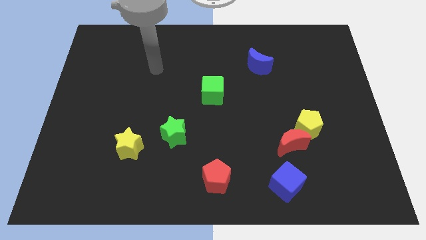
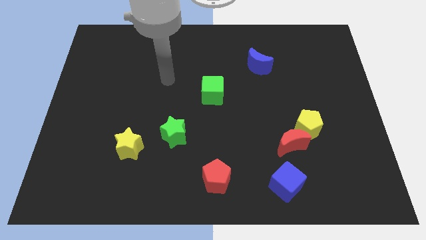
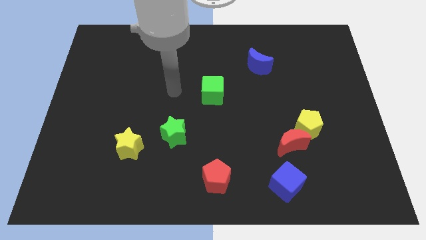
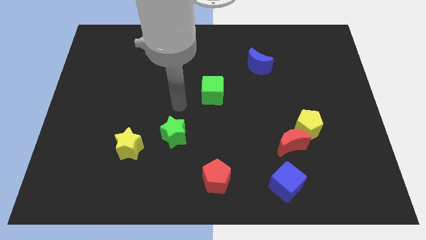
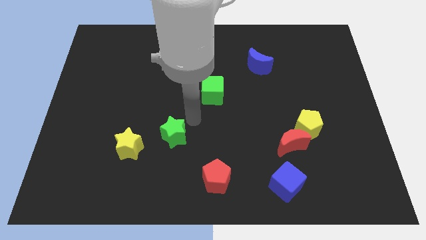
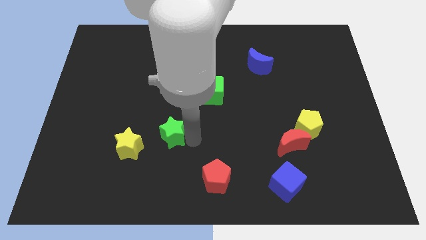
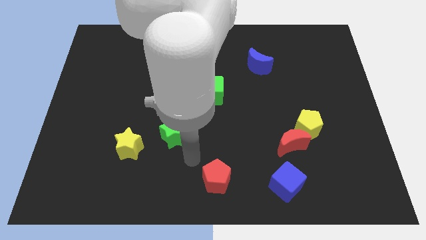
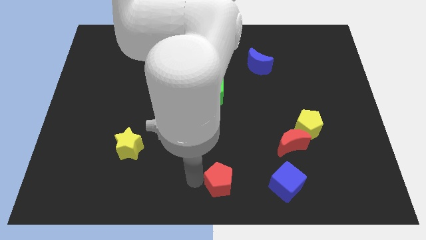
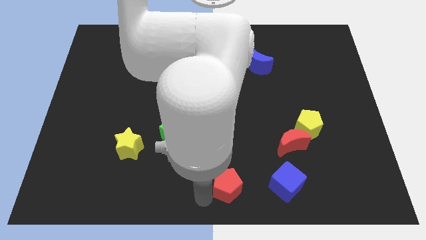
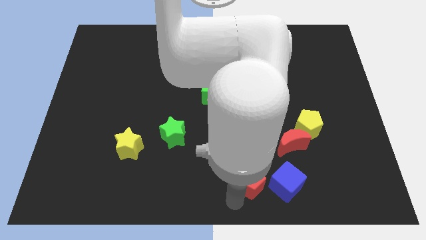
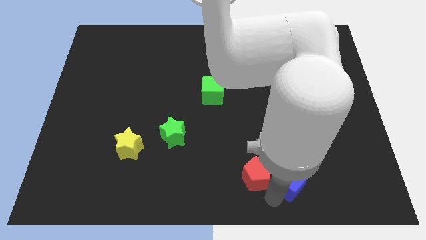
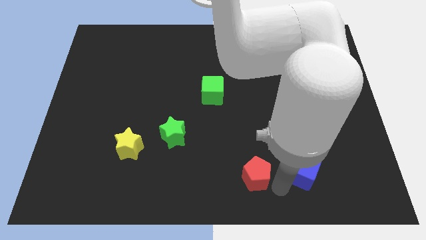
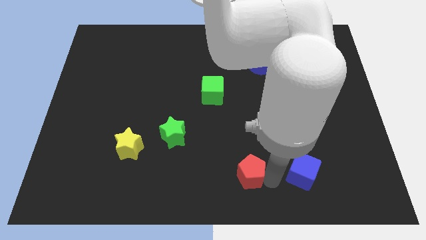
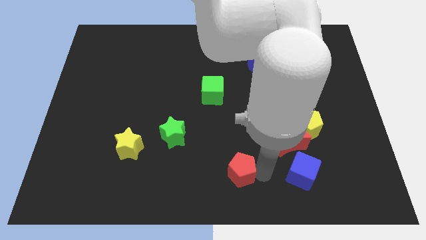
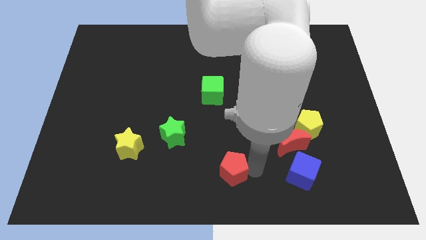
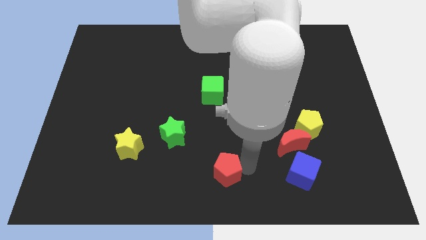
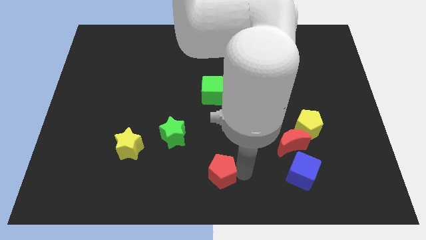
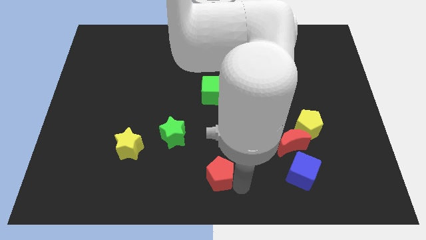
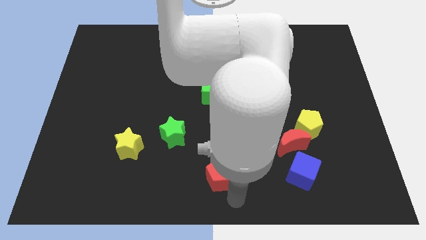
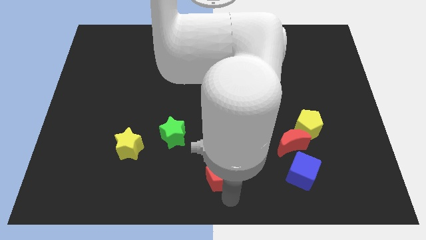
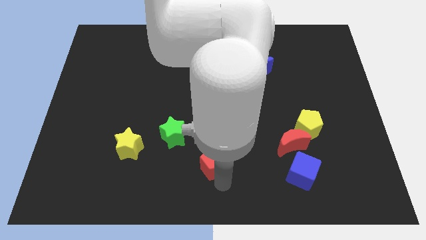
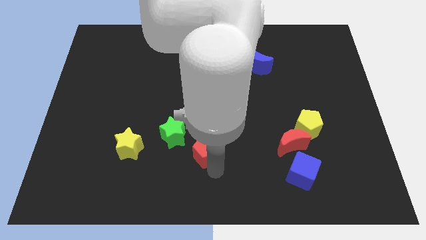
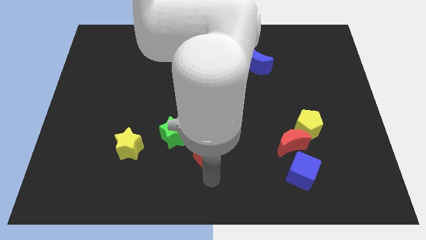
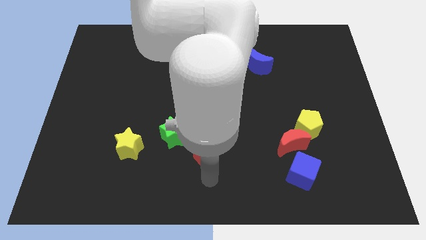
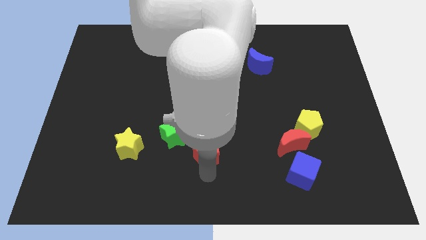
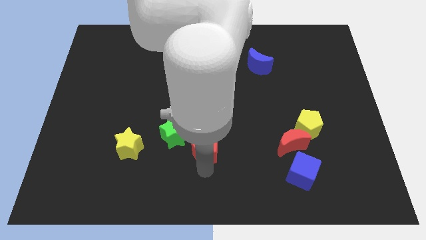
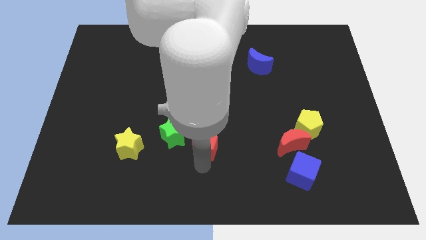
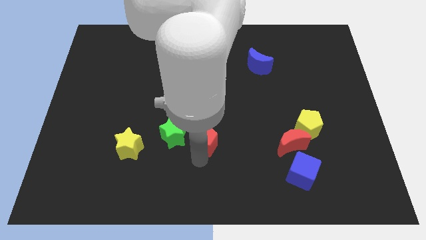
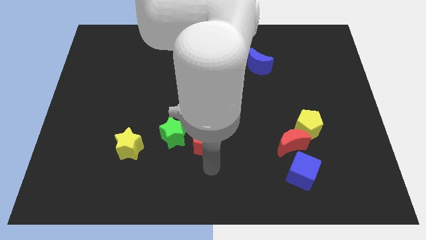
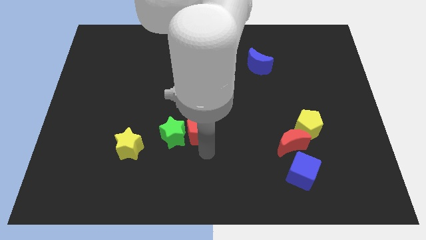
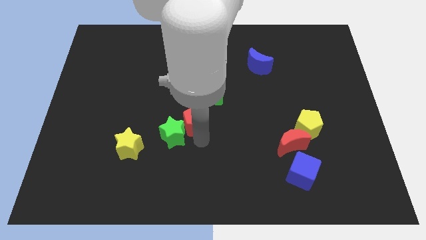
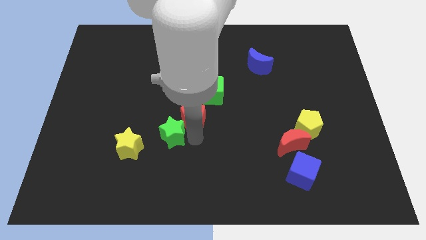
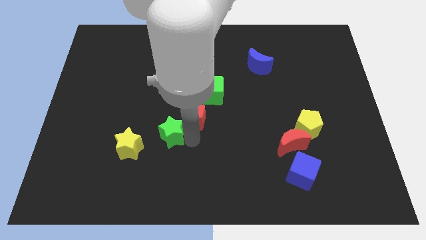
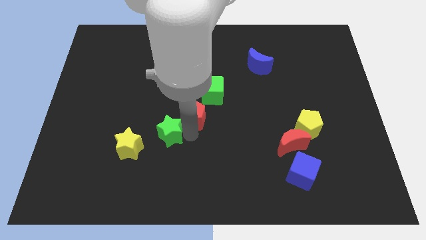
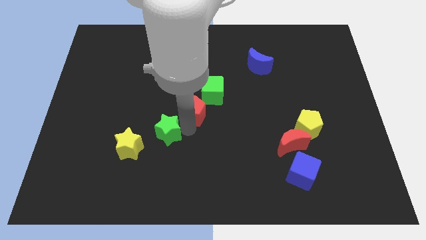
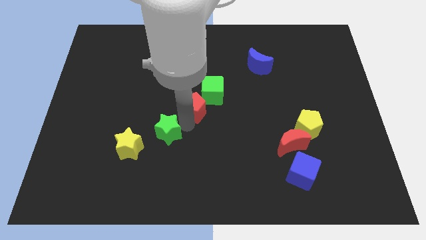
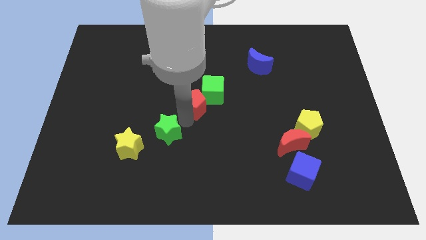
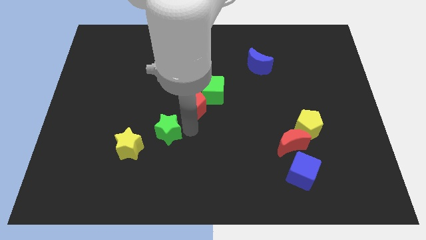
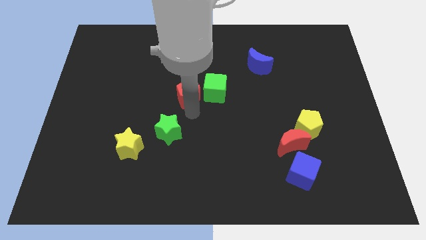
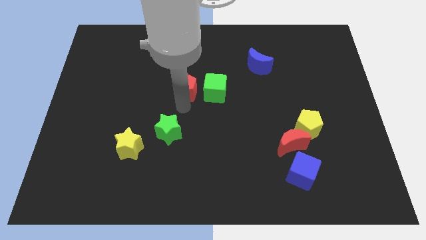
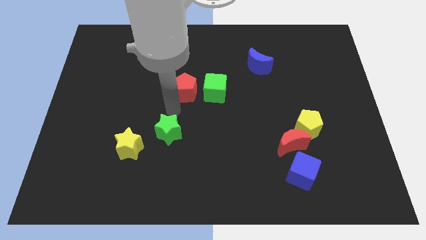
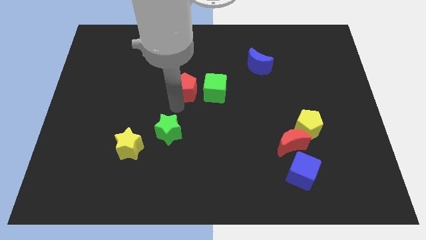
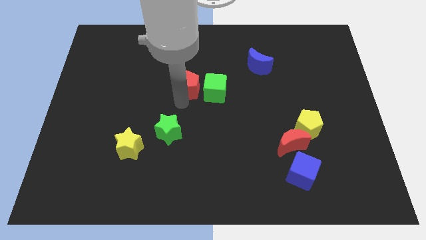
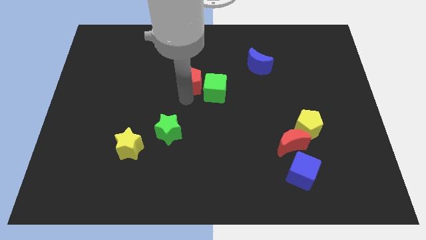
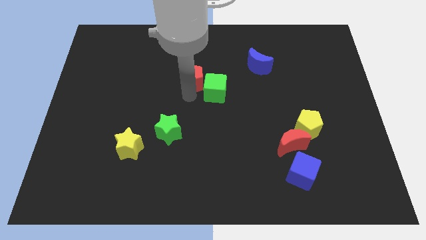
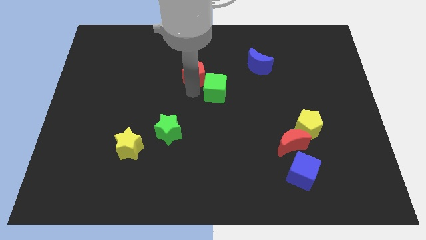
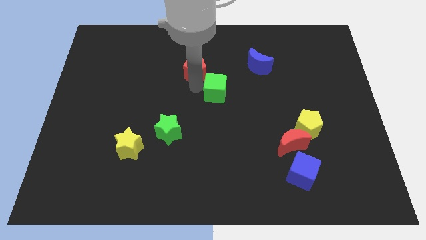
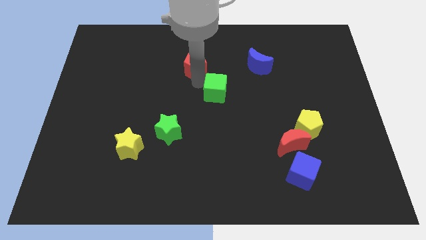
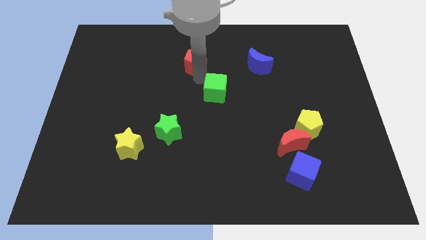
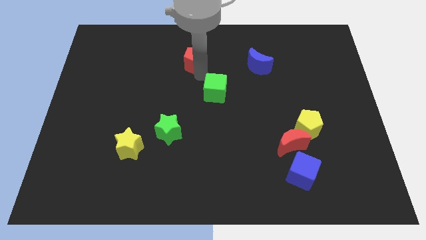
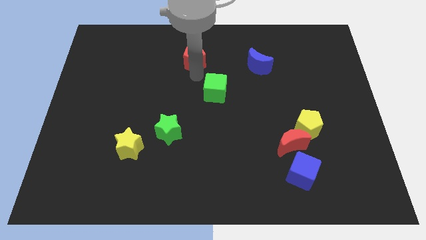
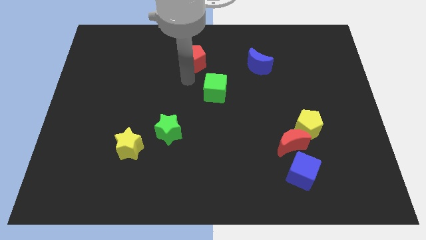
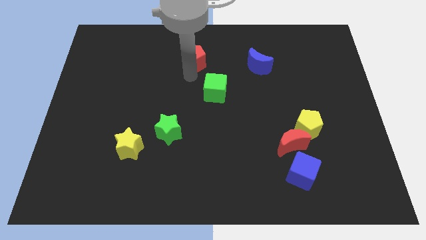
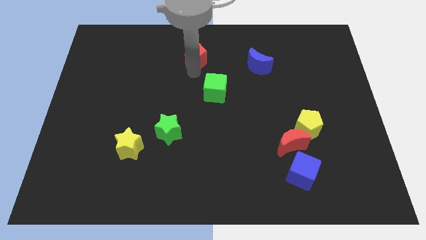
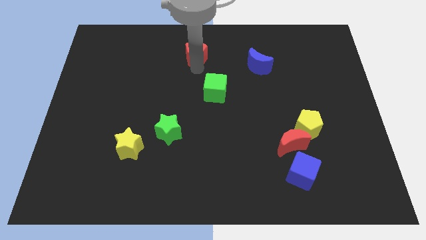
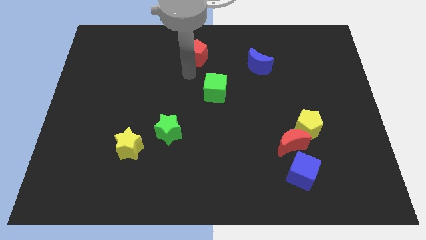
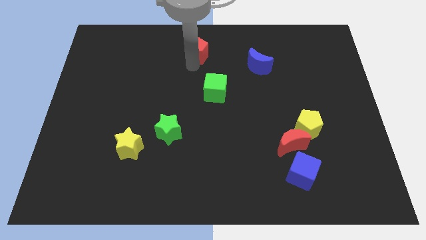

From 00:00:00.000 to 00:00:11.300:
put the red pentagon to the top

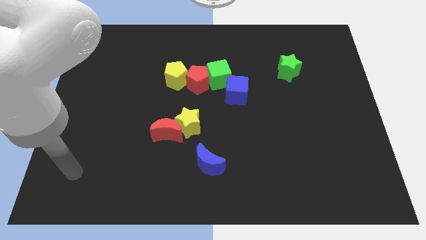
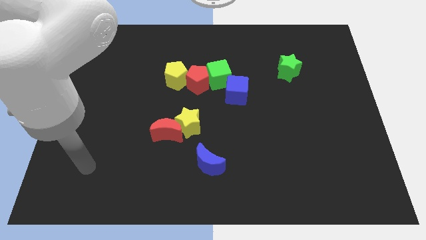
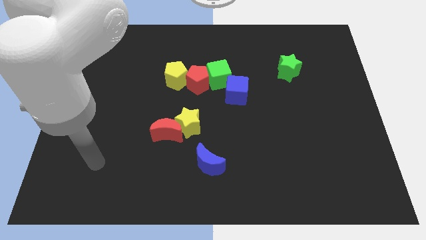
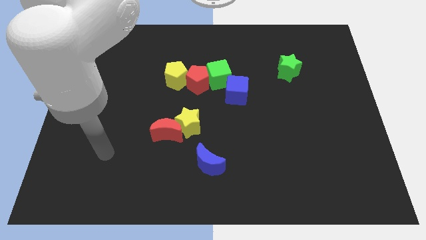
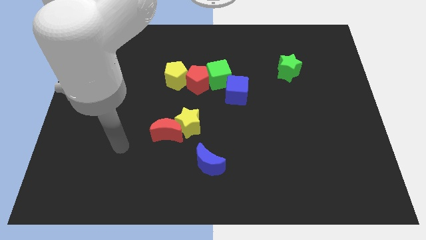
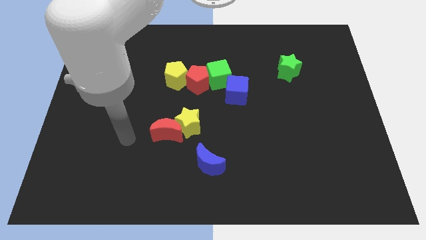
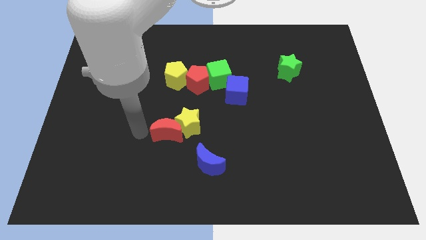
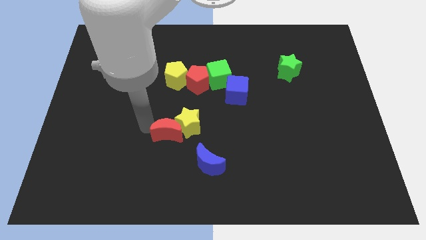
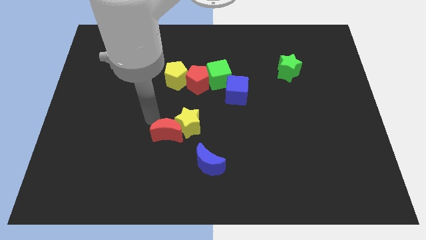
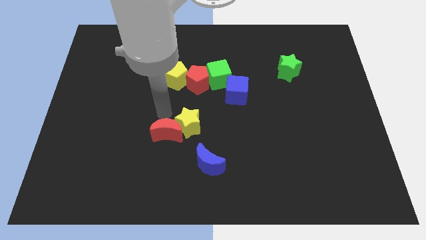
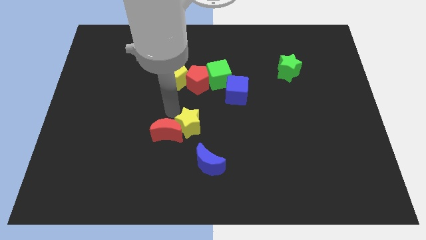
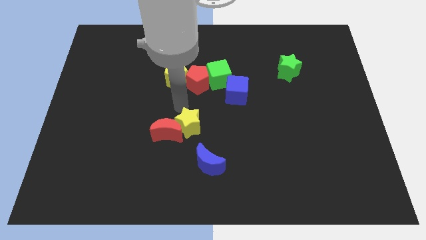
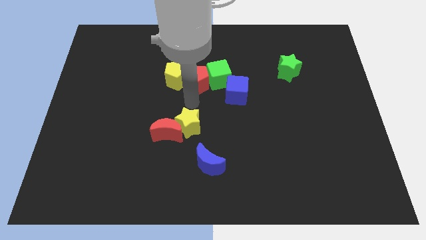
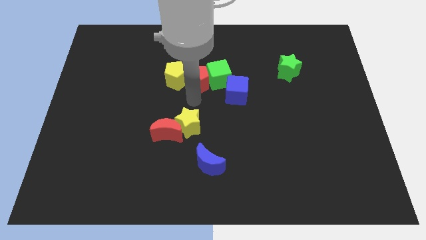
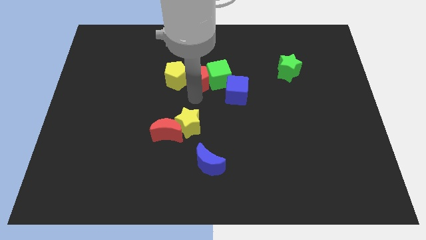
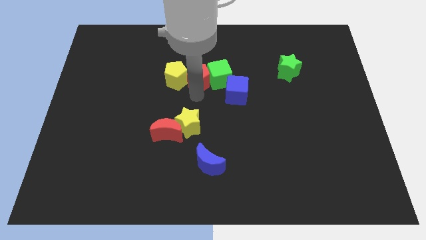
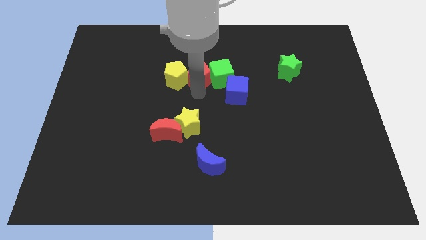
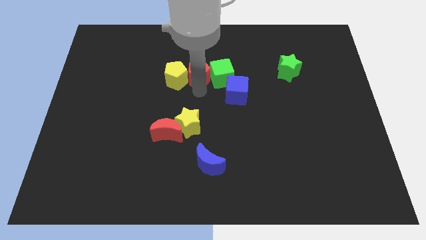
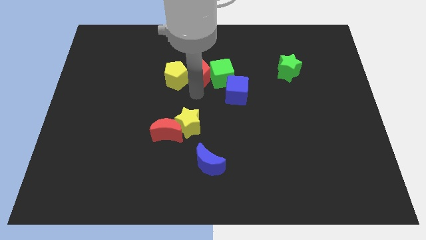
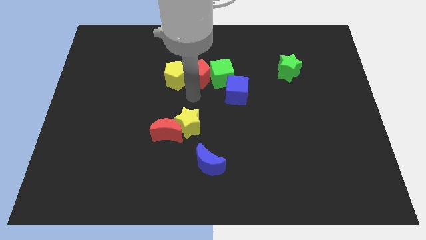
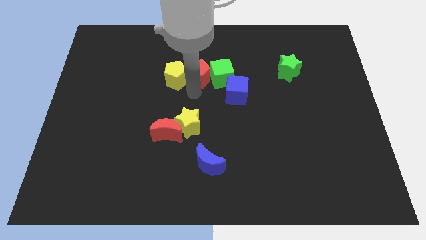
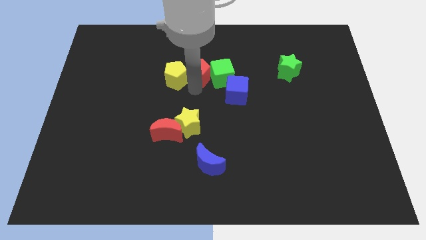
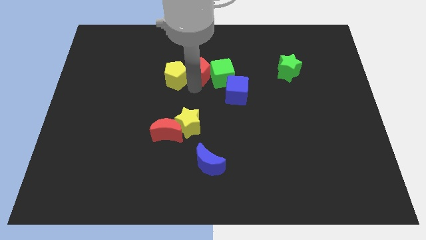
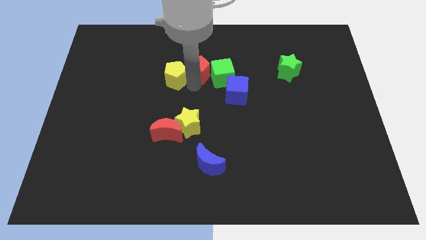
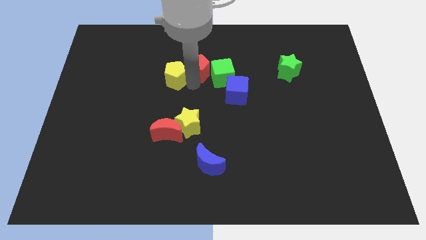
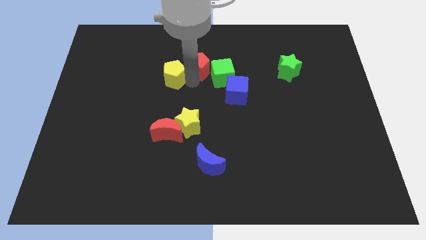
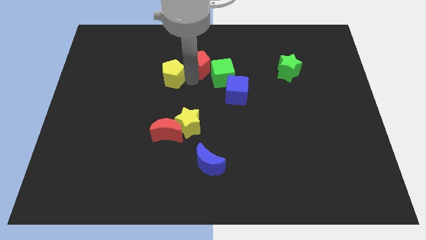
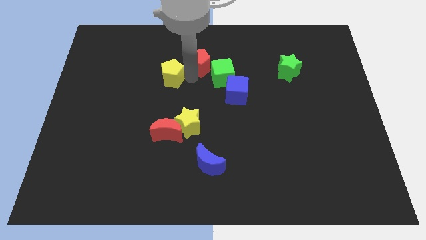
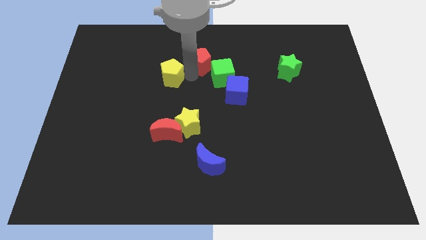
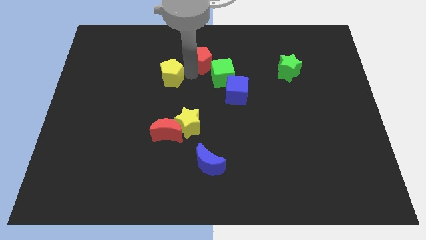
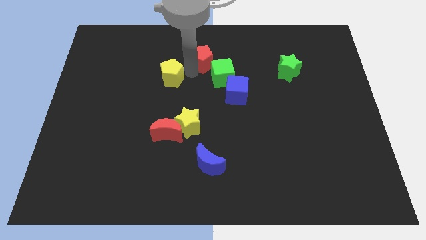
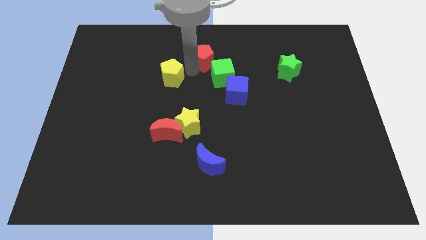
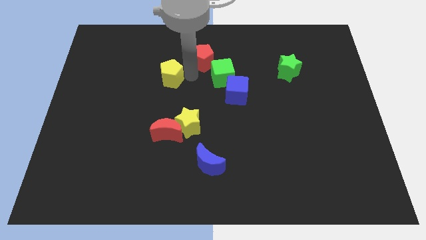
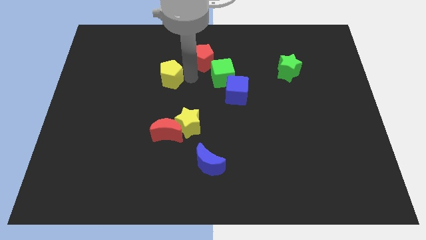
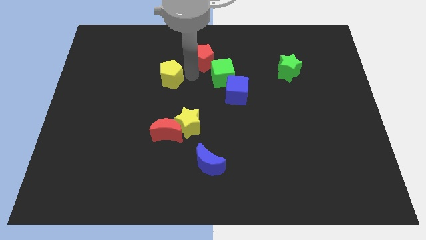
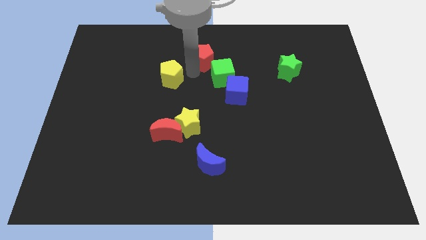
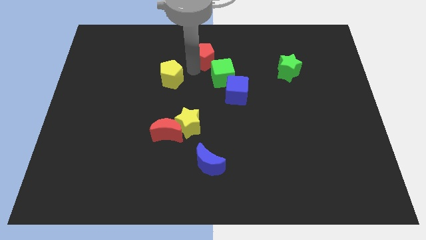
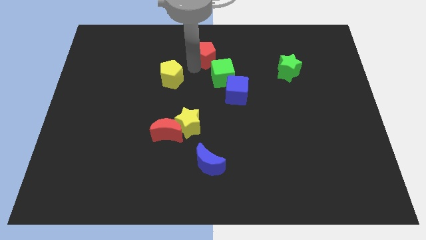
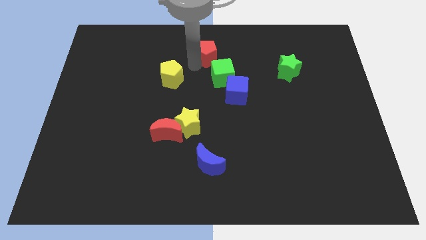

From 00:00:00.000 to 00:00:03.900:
slide the red pentagon to the towards your base
